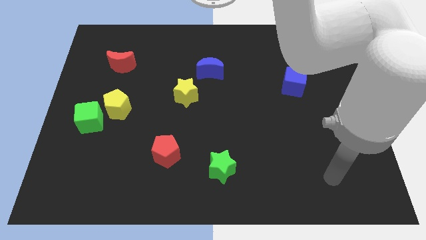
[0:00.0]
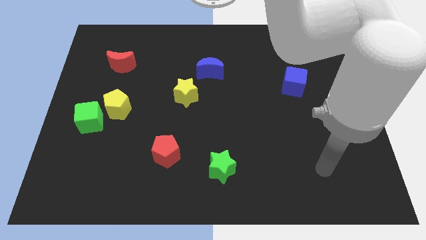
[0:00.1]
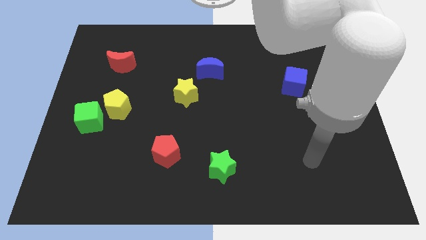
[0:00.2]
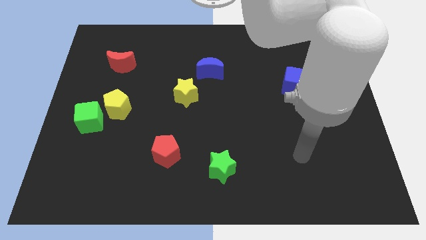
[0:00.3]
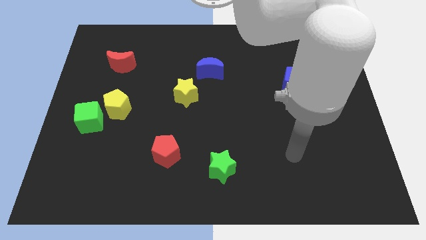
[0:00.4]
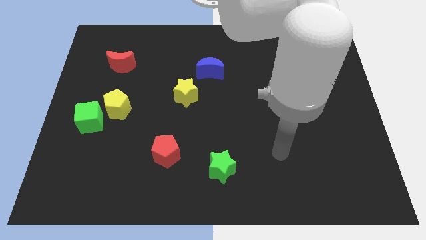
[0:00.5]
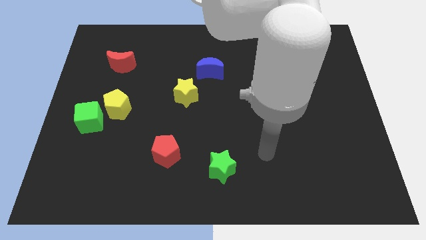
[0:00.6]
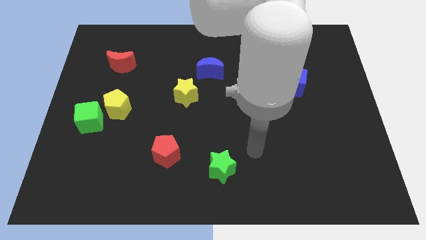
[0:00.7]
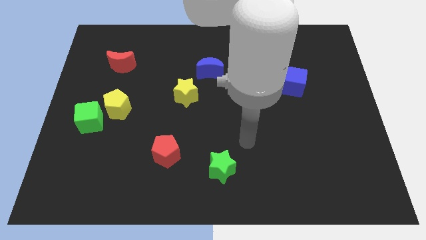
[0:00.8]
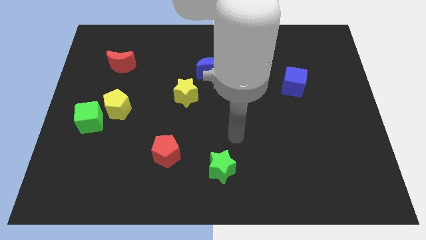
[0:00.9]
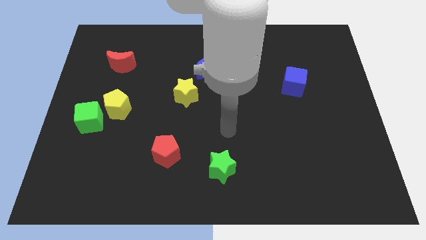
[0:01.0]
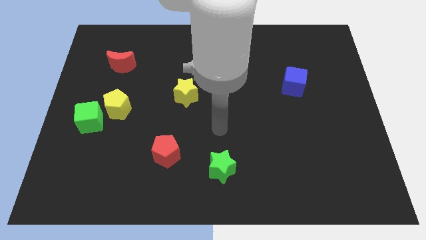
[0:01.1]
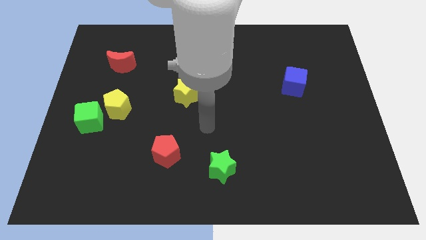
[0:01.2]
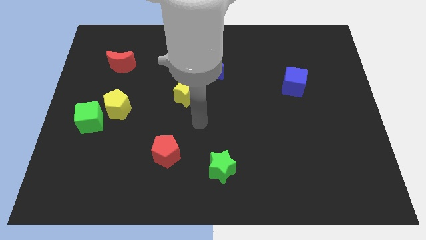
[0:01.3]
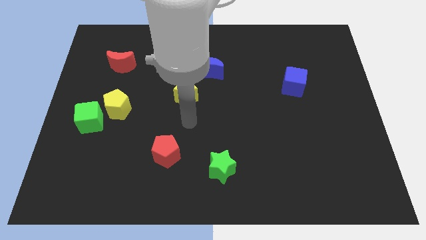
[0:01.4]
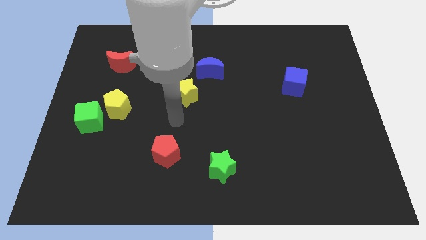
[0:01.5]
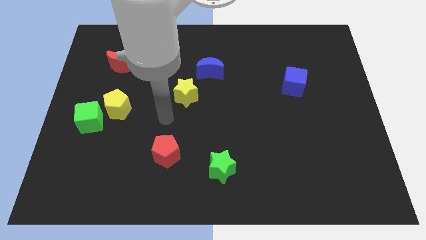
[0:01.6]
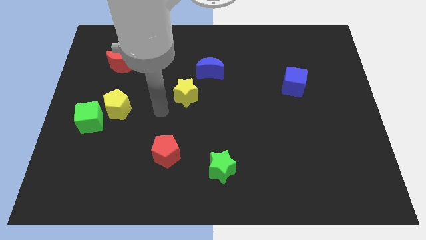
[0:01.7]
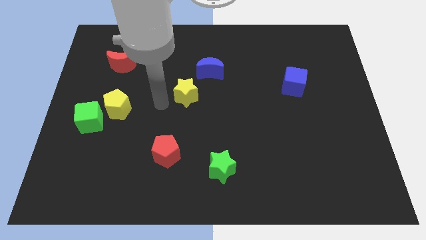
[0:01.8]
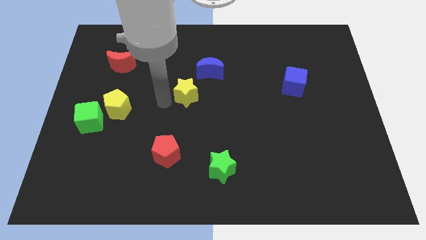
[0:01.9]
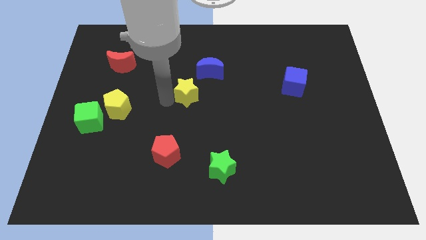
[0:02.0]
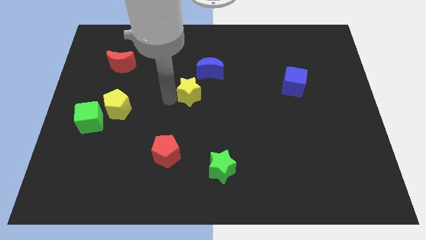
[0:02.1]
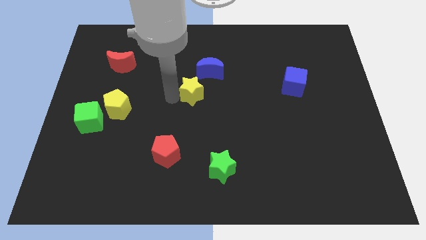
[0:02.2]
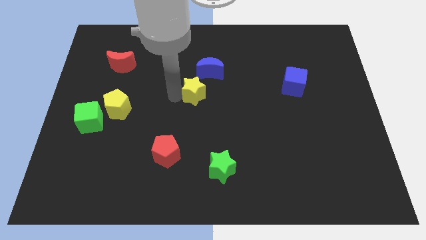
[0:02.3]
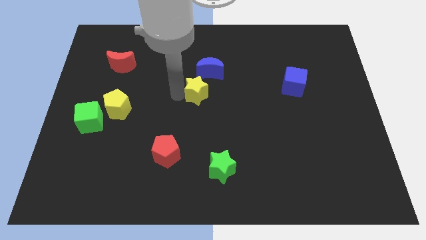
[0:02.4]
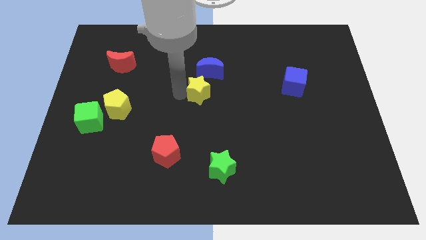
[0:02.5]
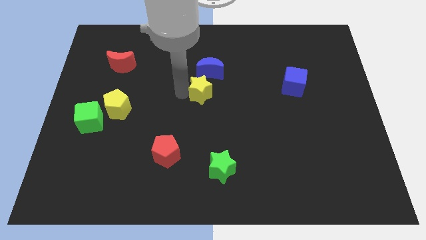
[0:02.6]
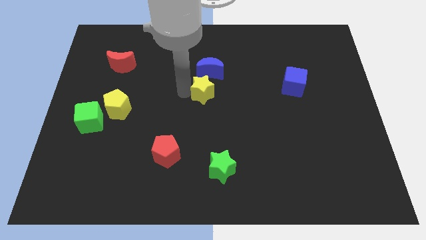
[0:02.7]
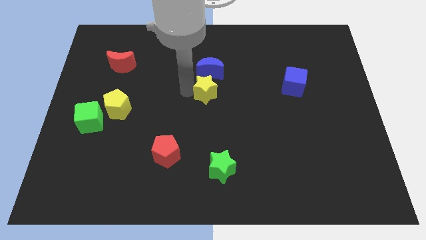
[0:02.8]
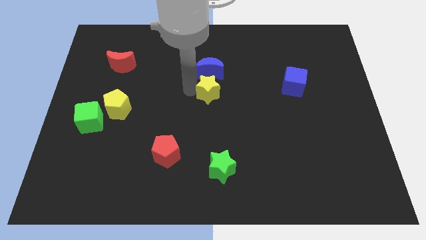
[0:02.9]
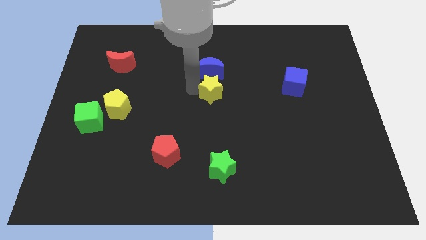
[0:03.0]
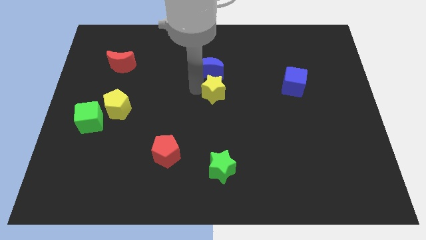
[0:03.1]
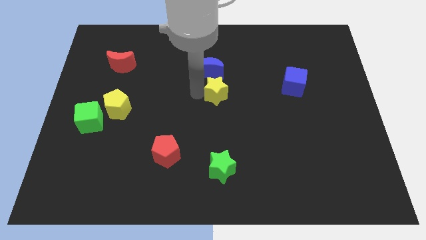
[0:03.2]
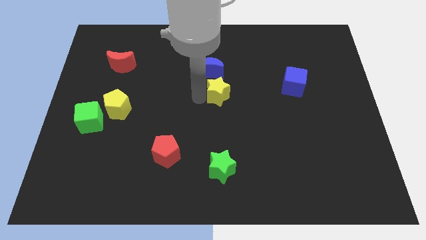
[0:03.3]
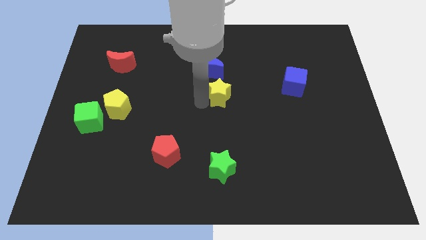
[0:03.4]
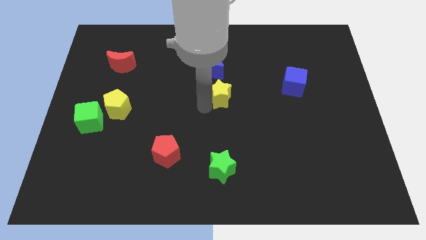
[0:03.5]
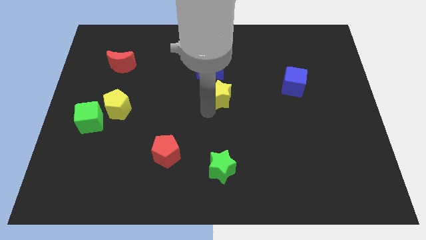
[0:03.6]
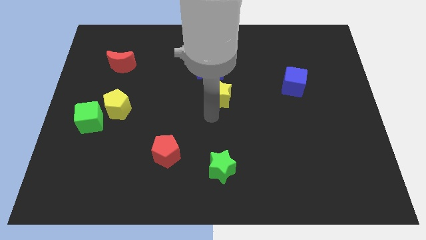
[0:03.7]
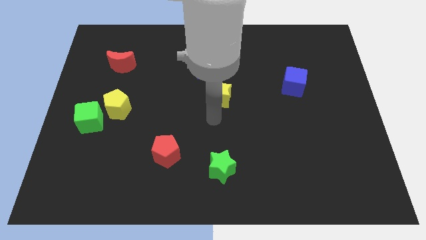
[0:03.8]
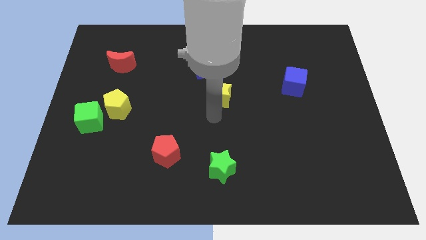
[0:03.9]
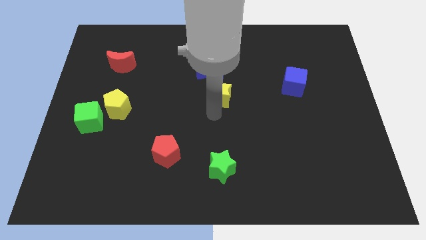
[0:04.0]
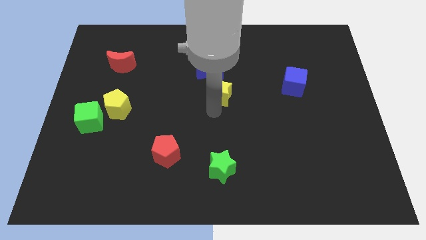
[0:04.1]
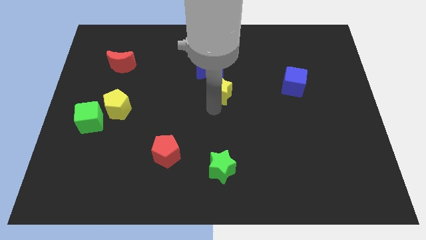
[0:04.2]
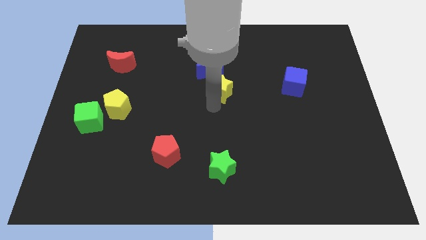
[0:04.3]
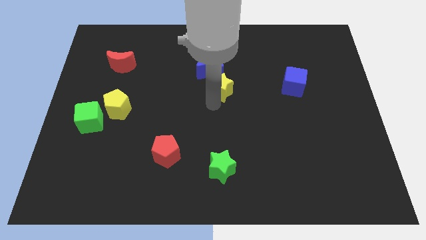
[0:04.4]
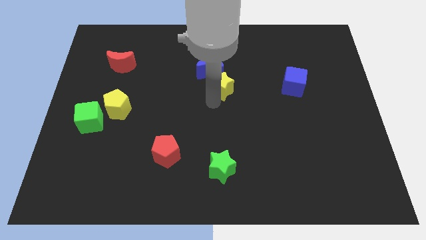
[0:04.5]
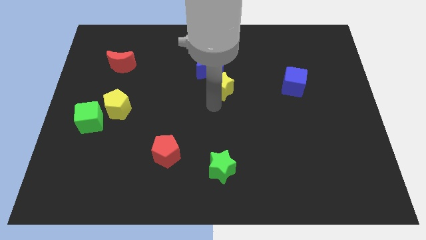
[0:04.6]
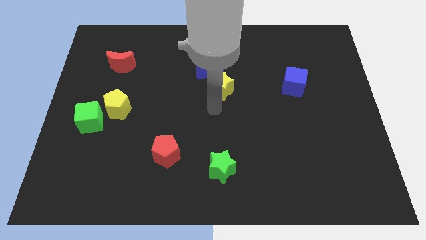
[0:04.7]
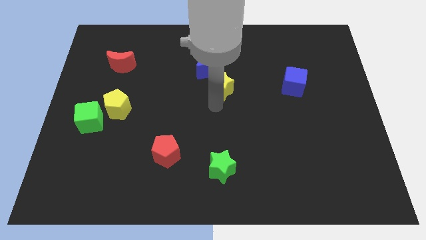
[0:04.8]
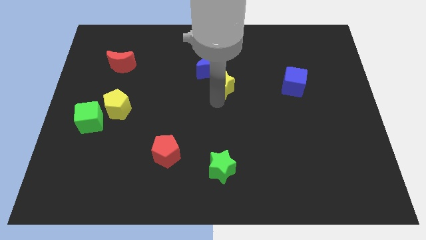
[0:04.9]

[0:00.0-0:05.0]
push the yellow star a little upwards and then to the right

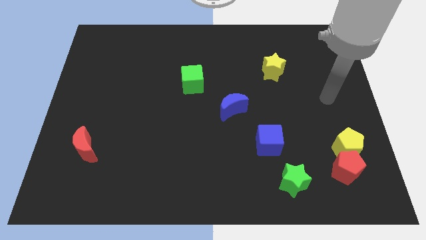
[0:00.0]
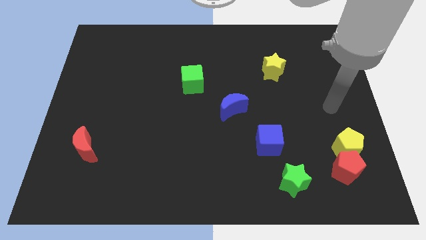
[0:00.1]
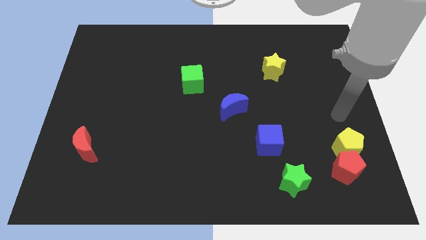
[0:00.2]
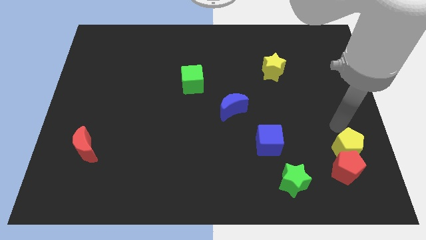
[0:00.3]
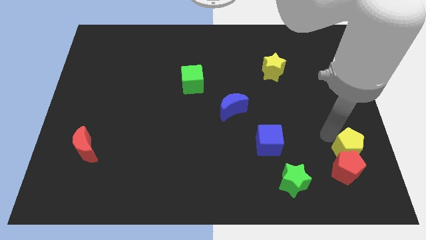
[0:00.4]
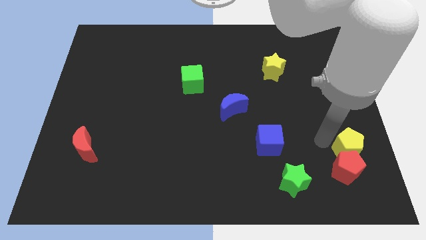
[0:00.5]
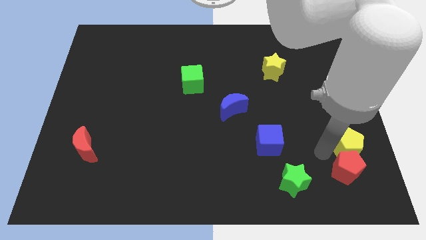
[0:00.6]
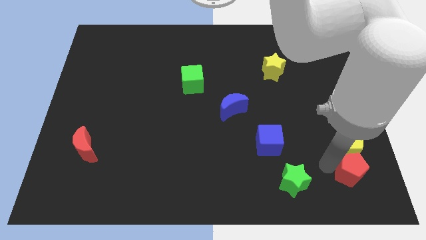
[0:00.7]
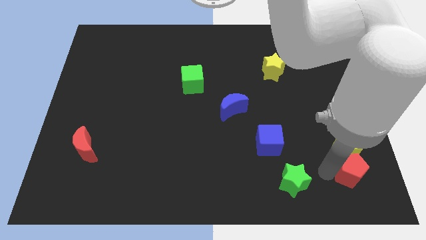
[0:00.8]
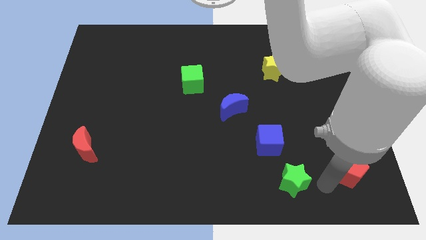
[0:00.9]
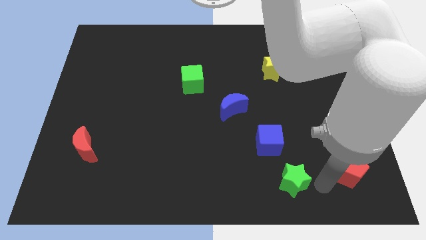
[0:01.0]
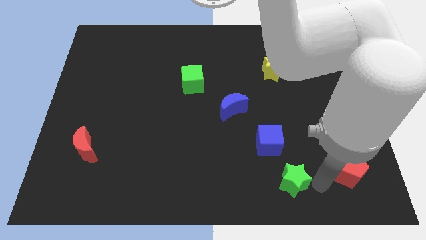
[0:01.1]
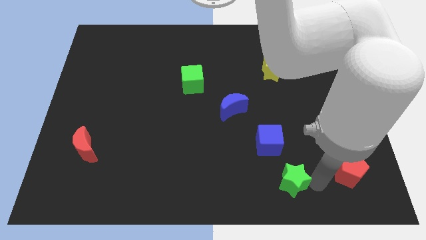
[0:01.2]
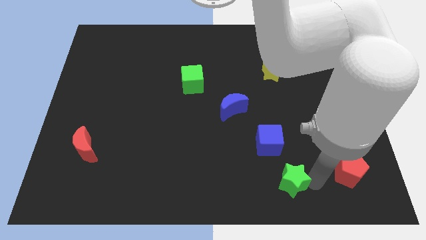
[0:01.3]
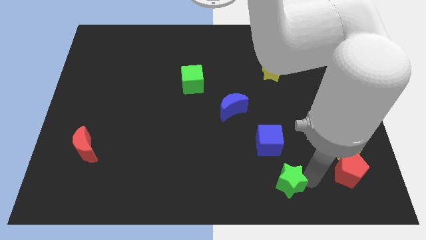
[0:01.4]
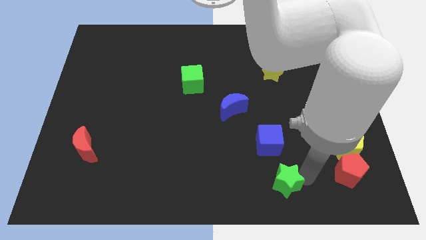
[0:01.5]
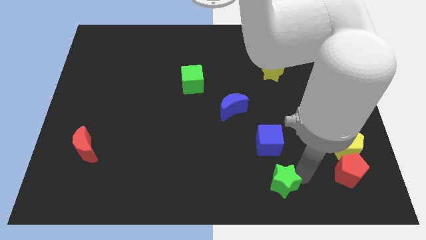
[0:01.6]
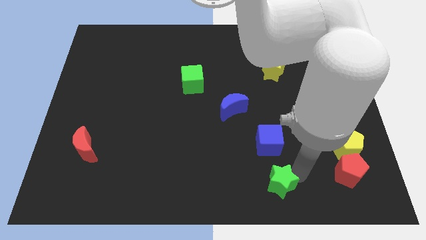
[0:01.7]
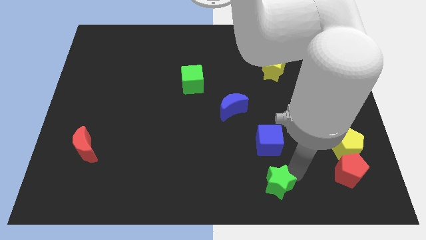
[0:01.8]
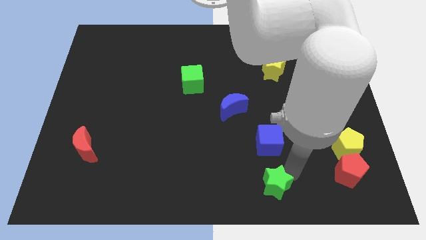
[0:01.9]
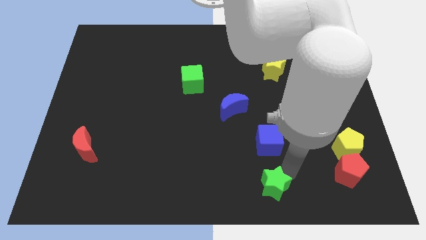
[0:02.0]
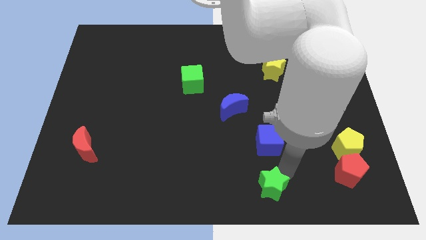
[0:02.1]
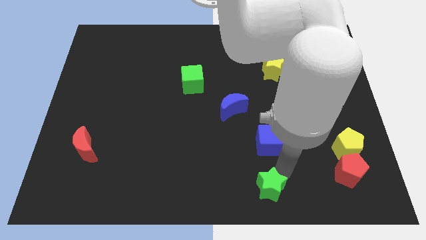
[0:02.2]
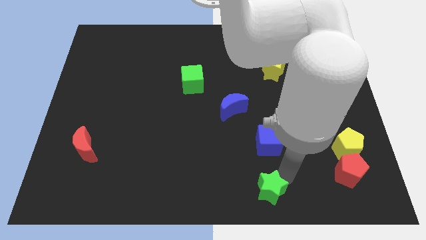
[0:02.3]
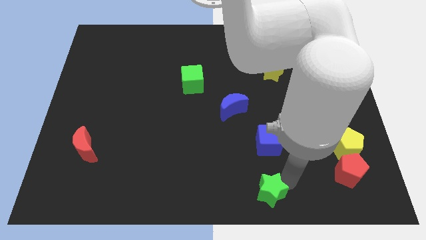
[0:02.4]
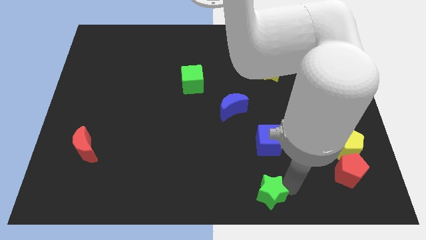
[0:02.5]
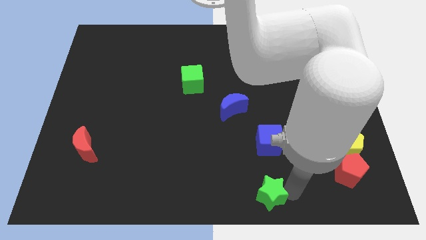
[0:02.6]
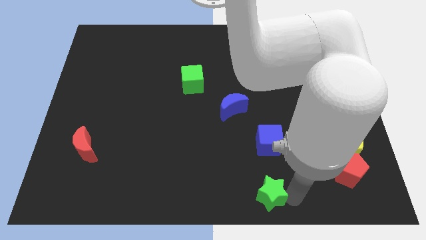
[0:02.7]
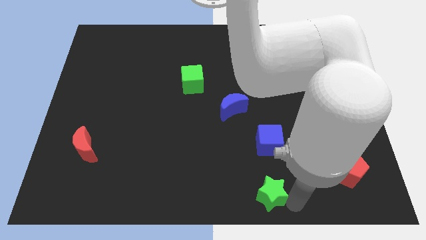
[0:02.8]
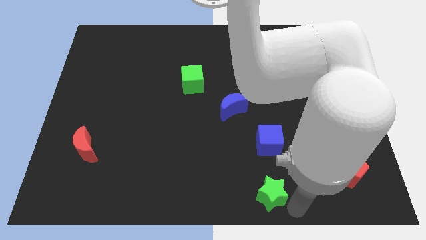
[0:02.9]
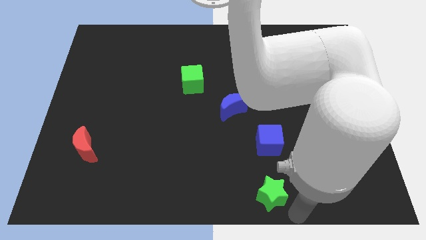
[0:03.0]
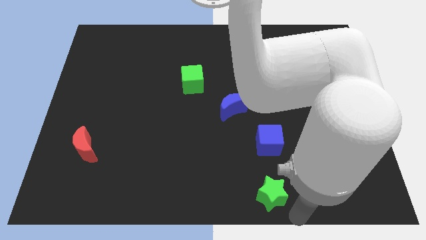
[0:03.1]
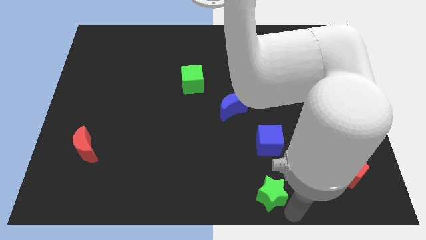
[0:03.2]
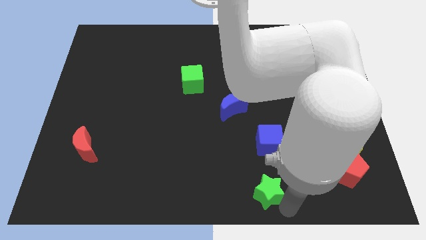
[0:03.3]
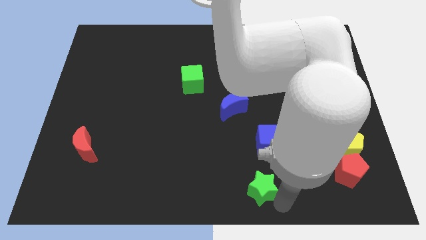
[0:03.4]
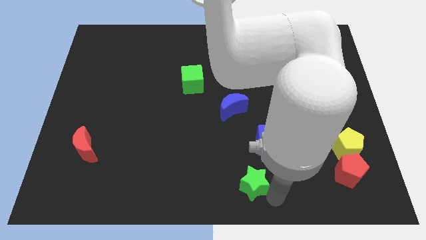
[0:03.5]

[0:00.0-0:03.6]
slightly push the green star to the left
